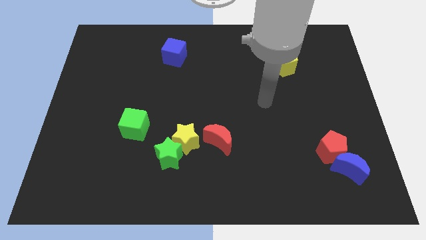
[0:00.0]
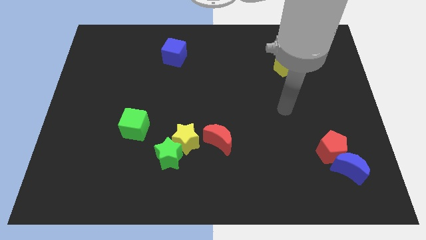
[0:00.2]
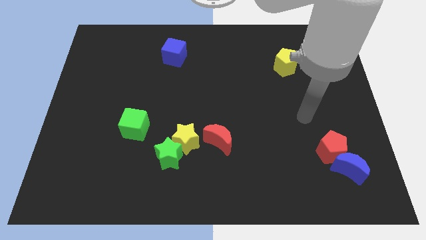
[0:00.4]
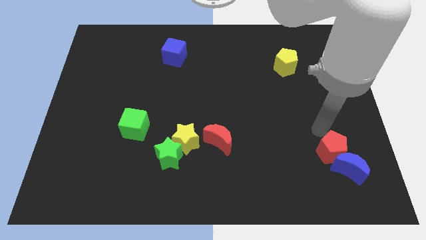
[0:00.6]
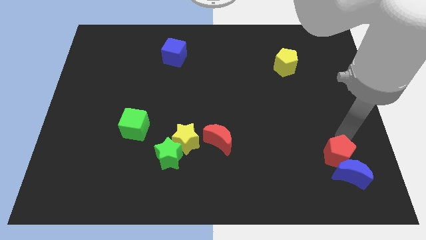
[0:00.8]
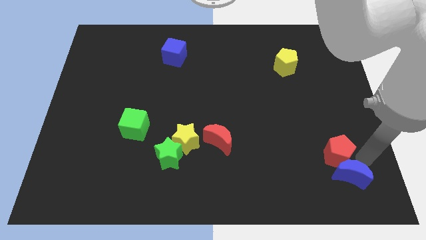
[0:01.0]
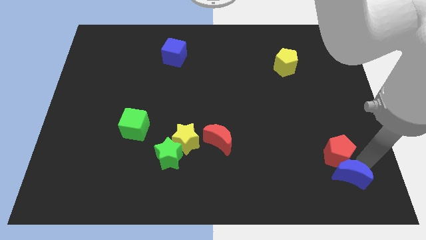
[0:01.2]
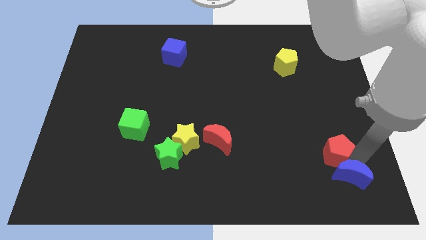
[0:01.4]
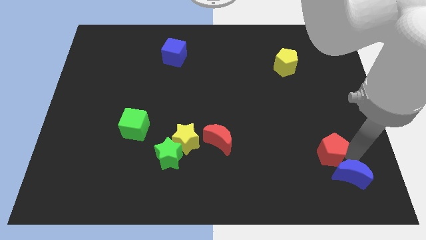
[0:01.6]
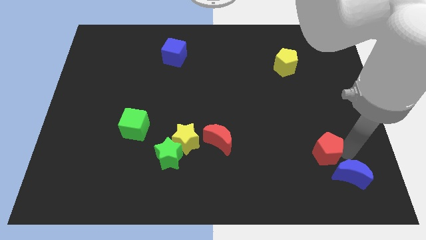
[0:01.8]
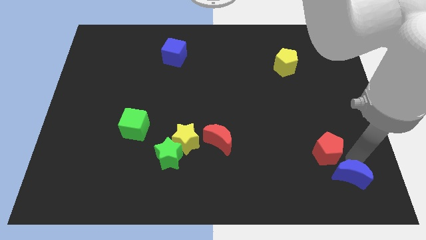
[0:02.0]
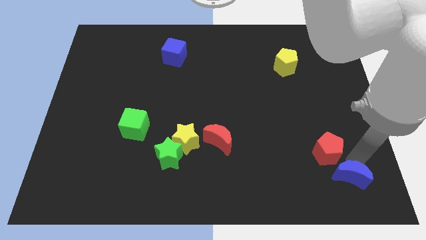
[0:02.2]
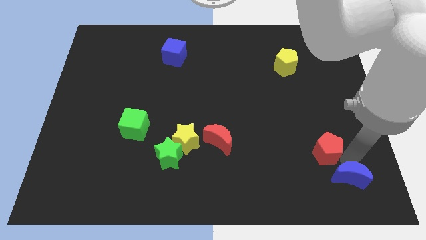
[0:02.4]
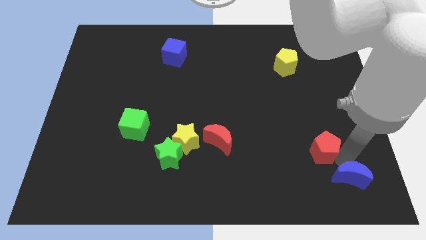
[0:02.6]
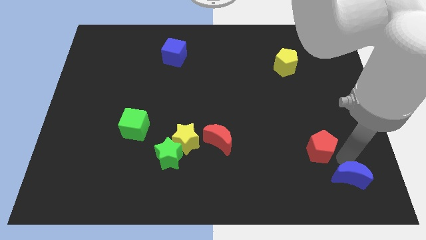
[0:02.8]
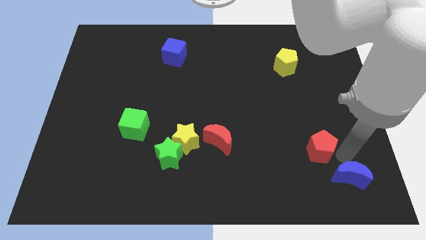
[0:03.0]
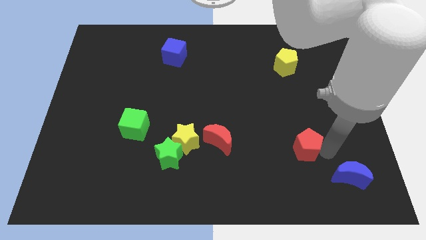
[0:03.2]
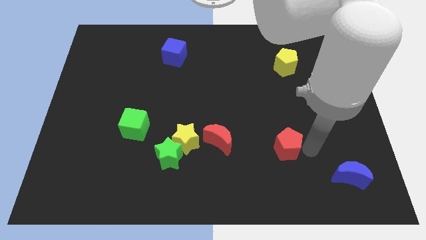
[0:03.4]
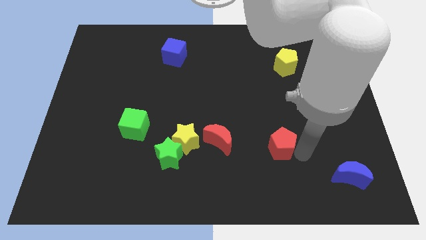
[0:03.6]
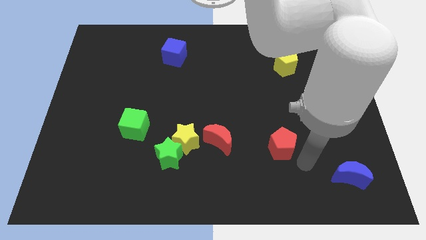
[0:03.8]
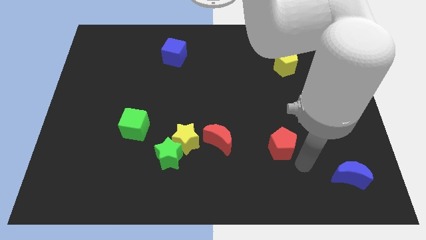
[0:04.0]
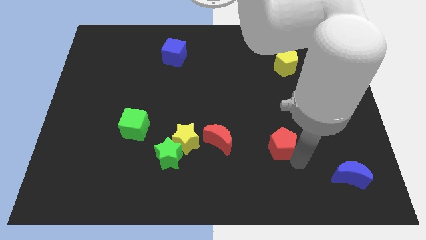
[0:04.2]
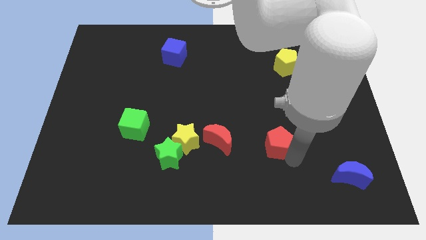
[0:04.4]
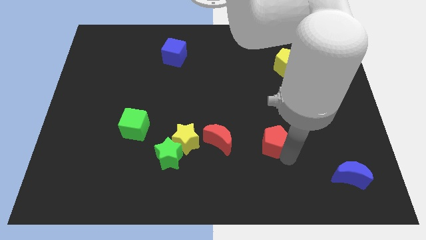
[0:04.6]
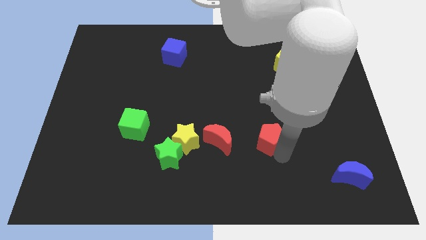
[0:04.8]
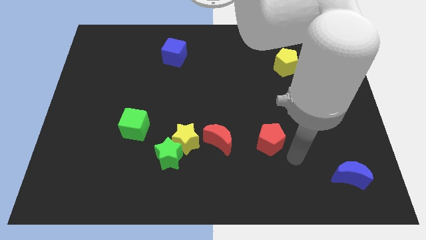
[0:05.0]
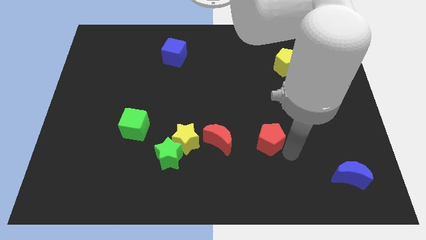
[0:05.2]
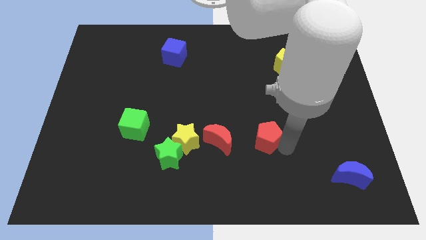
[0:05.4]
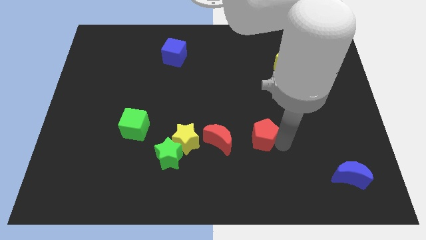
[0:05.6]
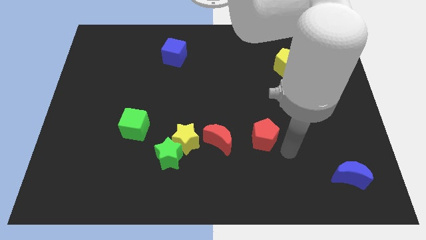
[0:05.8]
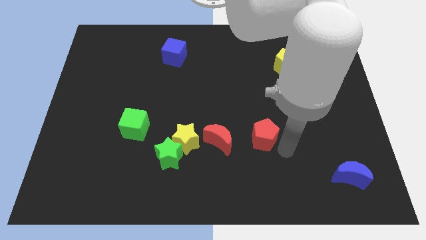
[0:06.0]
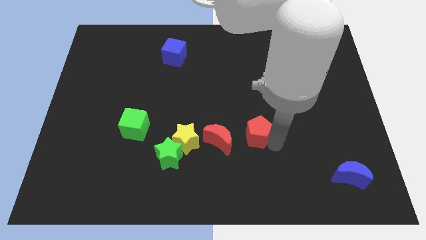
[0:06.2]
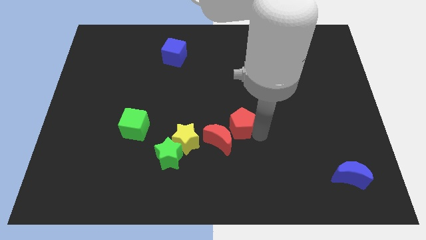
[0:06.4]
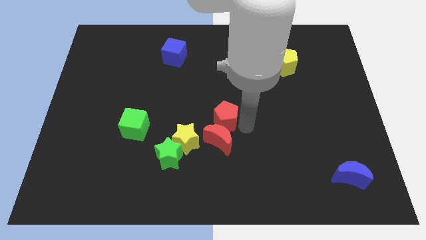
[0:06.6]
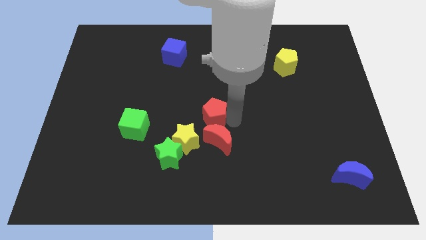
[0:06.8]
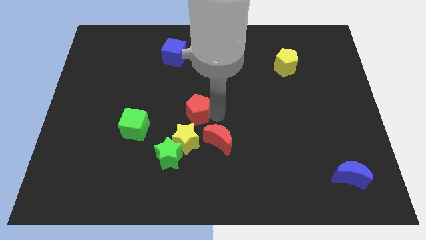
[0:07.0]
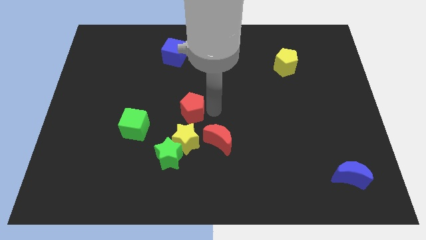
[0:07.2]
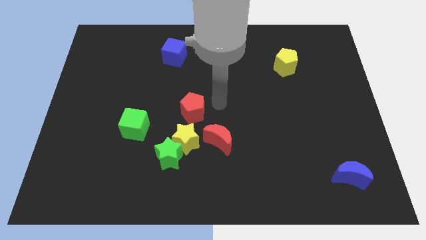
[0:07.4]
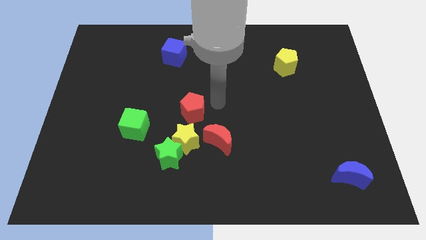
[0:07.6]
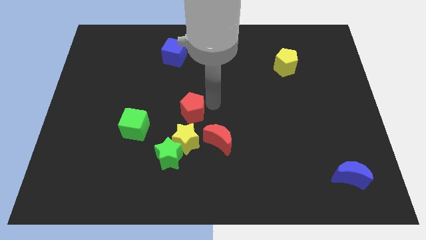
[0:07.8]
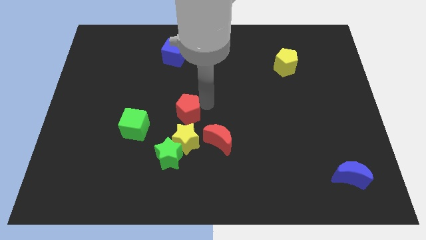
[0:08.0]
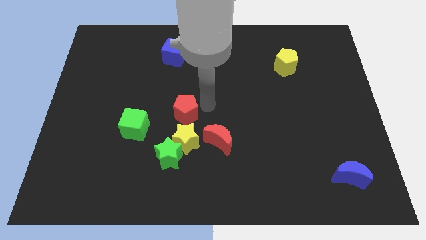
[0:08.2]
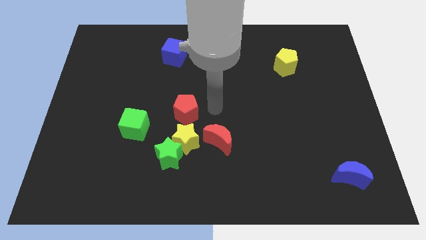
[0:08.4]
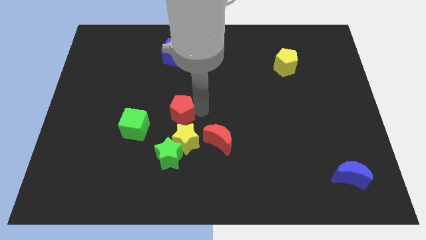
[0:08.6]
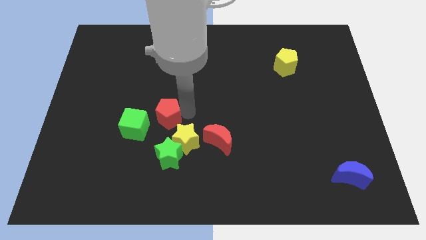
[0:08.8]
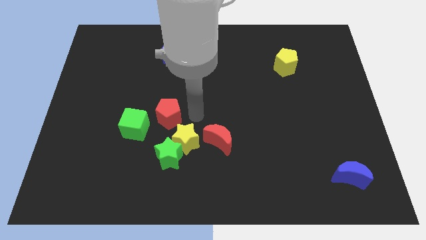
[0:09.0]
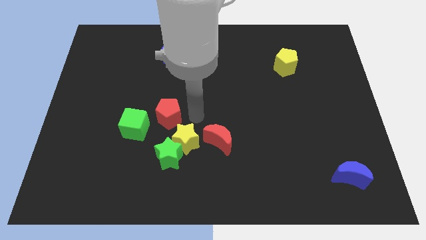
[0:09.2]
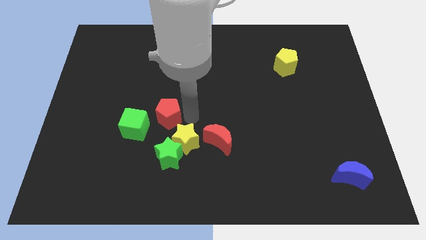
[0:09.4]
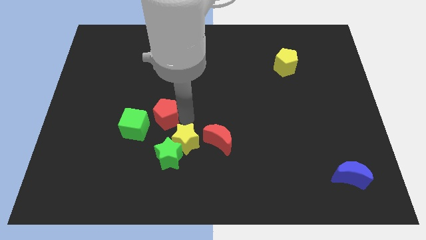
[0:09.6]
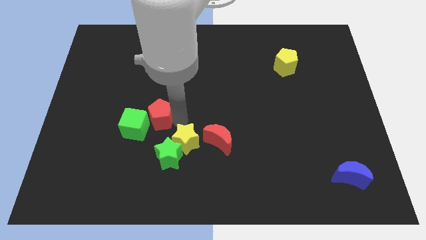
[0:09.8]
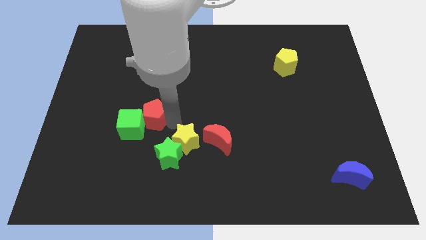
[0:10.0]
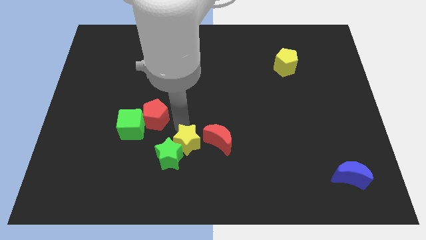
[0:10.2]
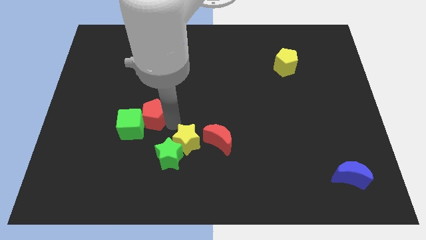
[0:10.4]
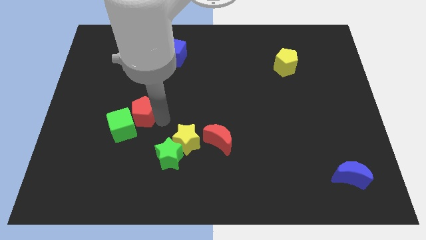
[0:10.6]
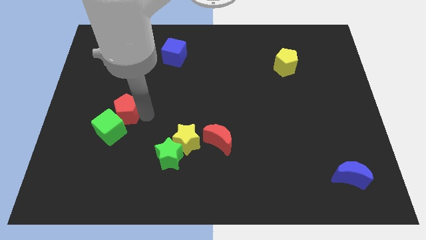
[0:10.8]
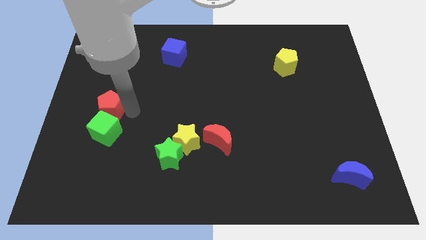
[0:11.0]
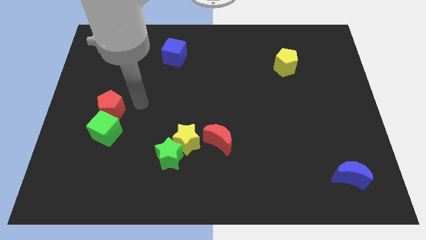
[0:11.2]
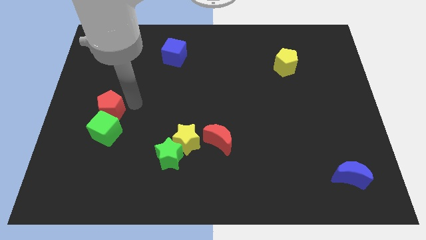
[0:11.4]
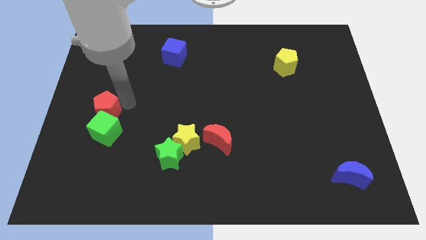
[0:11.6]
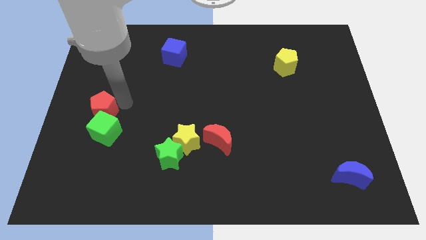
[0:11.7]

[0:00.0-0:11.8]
push the red pentagon to the center left

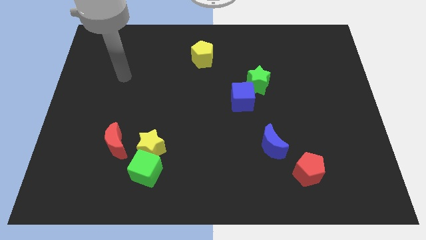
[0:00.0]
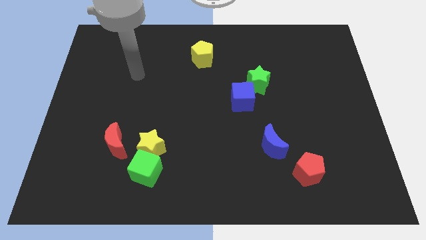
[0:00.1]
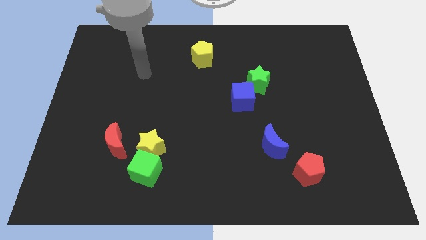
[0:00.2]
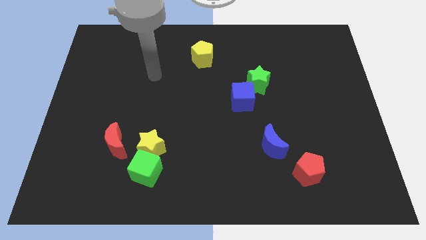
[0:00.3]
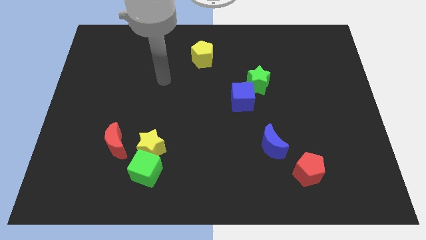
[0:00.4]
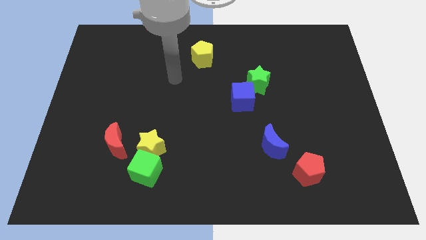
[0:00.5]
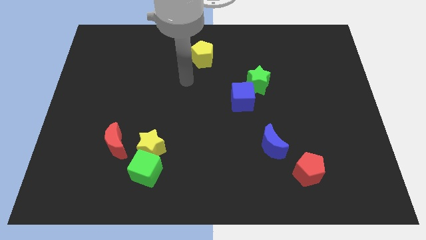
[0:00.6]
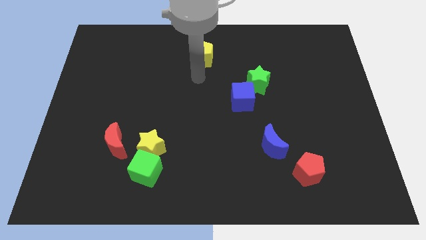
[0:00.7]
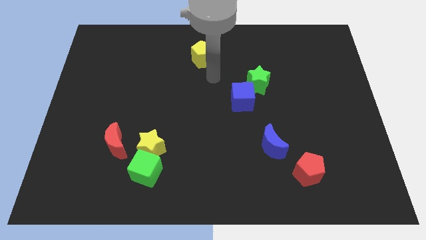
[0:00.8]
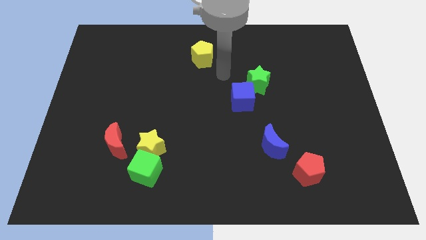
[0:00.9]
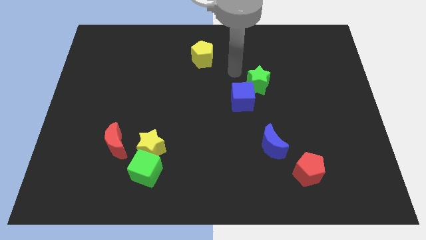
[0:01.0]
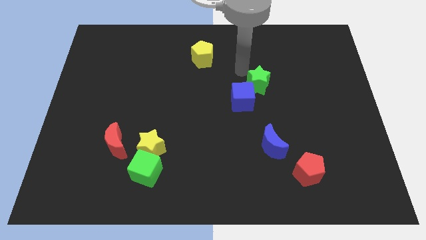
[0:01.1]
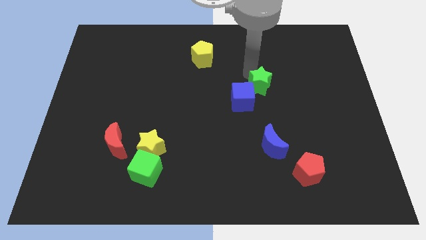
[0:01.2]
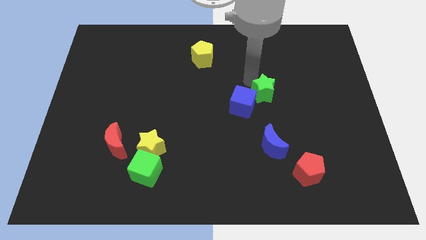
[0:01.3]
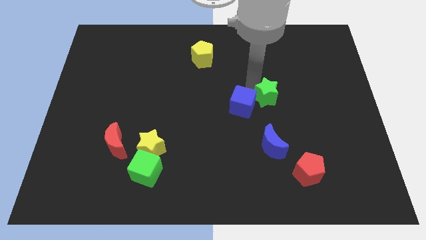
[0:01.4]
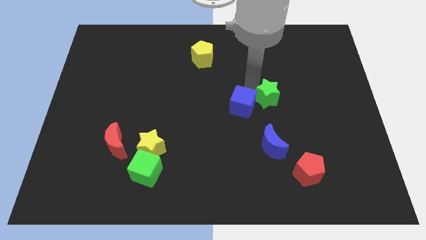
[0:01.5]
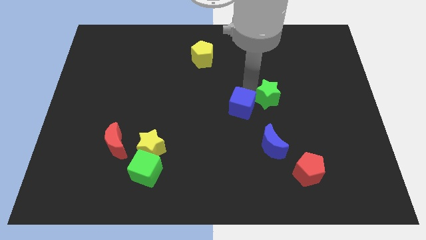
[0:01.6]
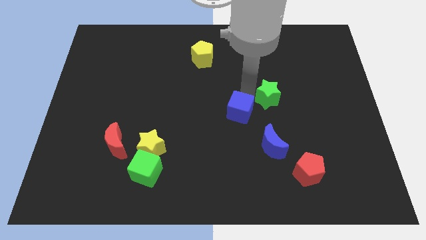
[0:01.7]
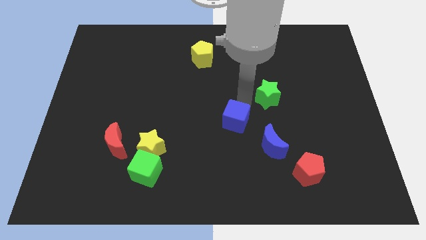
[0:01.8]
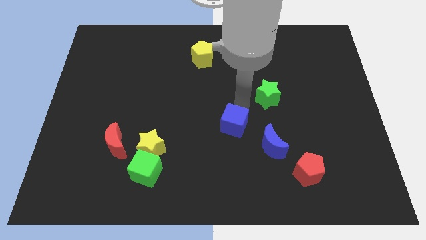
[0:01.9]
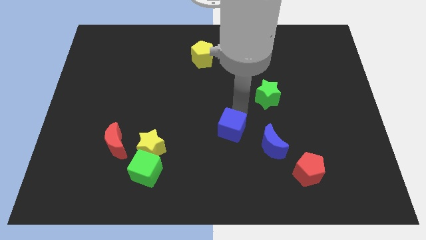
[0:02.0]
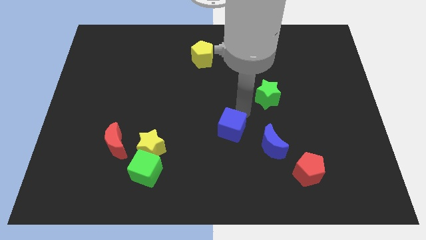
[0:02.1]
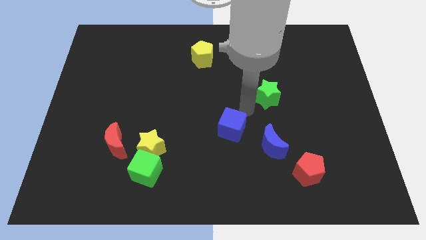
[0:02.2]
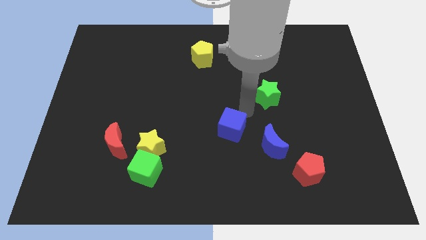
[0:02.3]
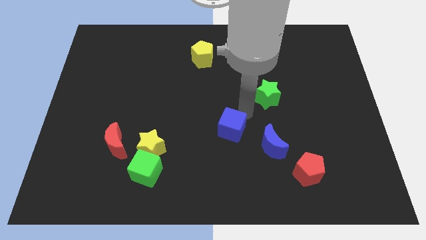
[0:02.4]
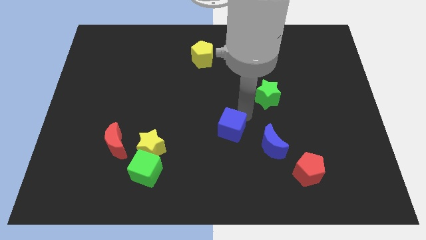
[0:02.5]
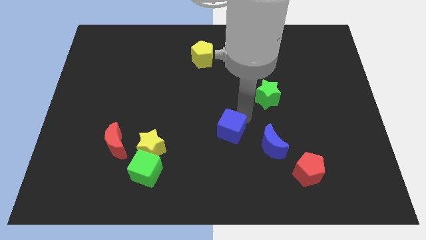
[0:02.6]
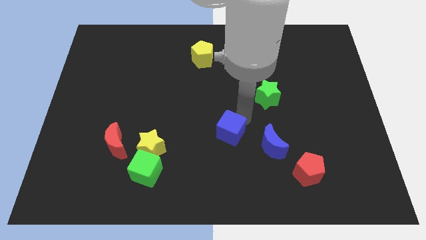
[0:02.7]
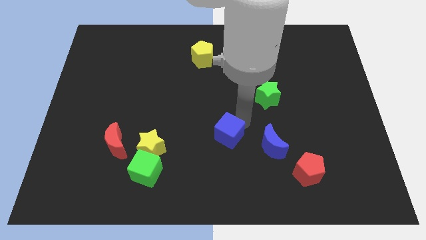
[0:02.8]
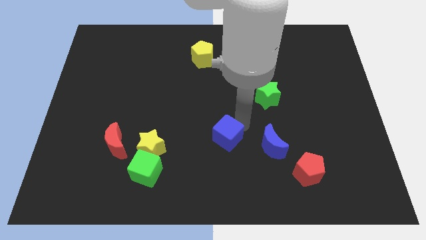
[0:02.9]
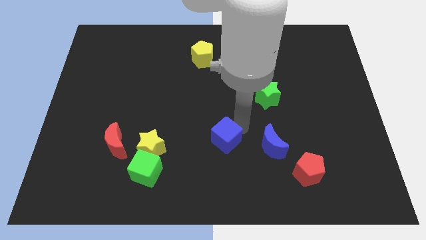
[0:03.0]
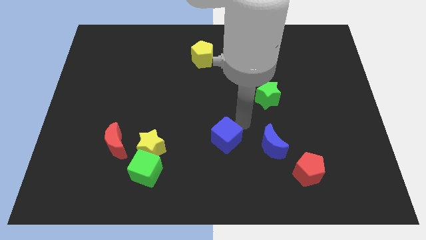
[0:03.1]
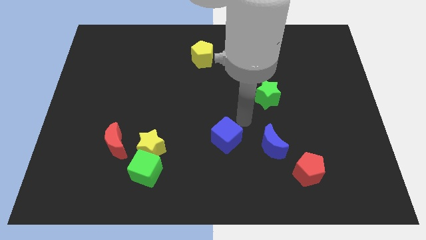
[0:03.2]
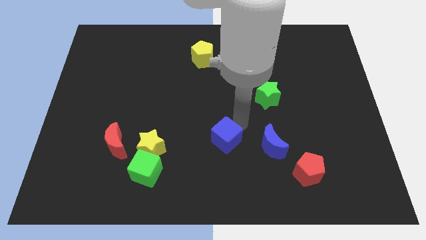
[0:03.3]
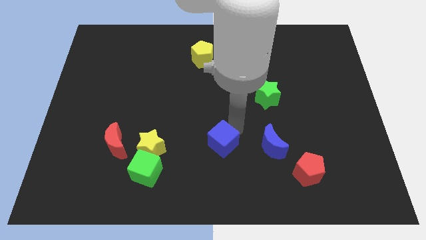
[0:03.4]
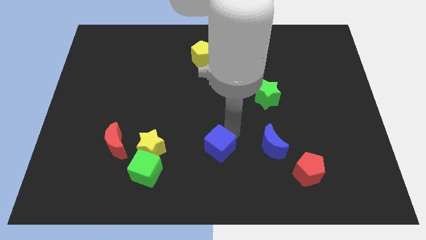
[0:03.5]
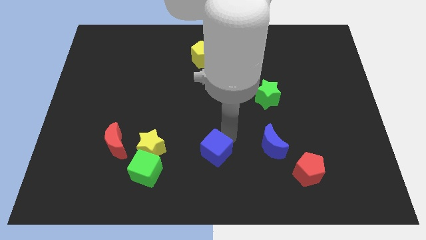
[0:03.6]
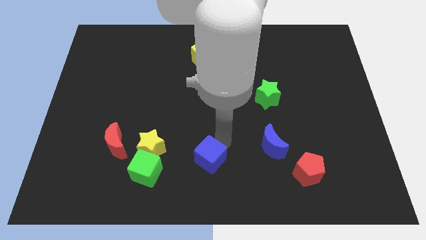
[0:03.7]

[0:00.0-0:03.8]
move the blue cube to the bottom
